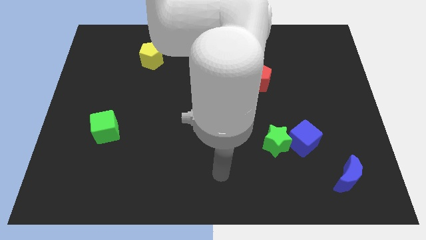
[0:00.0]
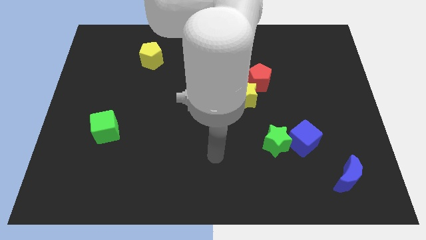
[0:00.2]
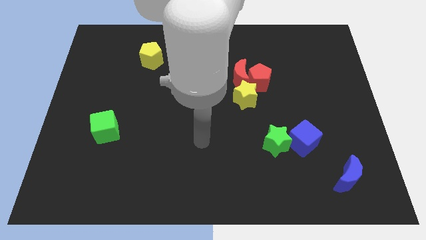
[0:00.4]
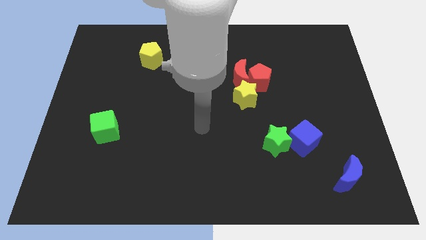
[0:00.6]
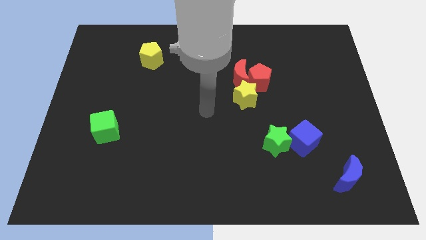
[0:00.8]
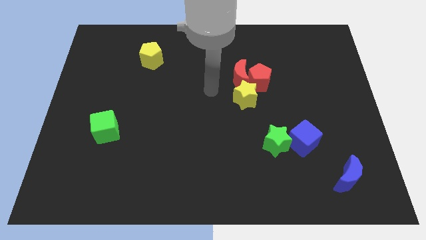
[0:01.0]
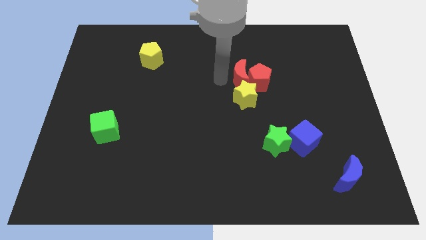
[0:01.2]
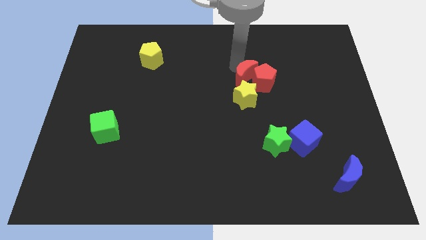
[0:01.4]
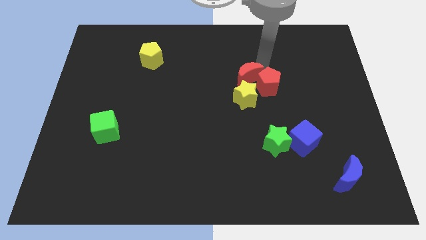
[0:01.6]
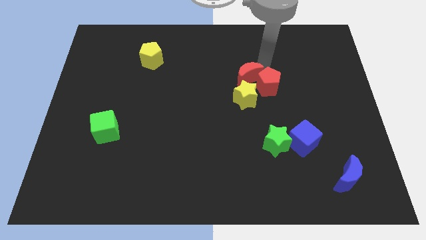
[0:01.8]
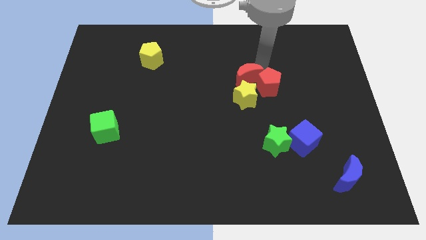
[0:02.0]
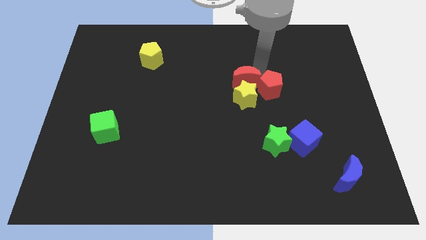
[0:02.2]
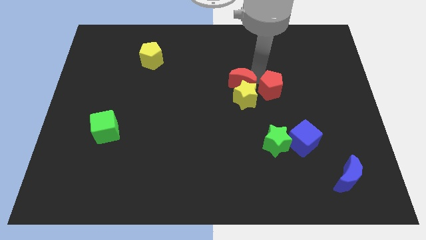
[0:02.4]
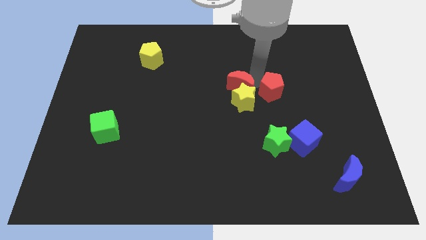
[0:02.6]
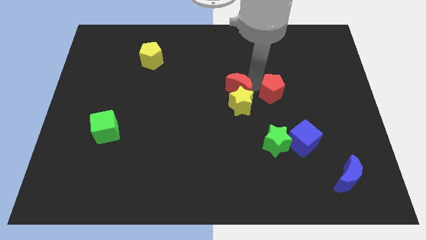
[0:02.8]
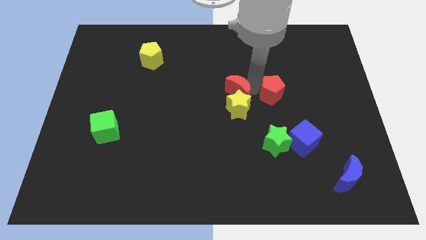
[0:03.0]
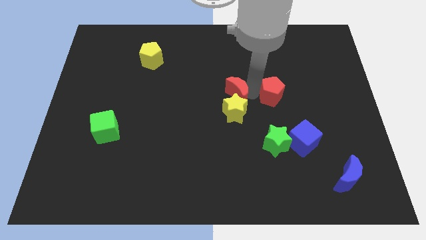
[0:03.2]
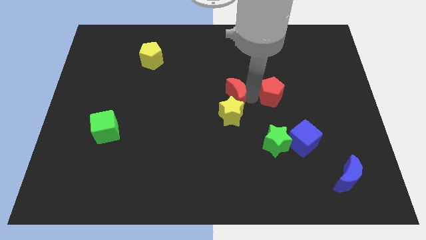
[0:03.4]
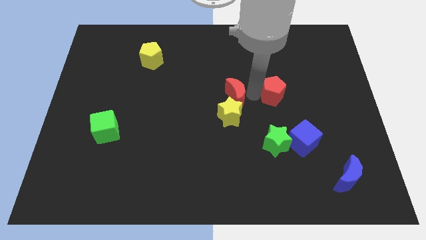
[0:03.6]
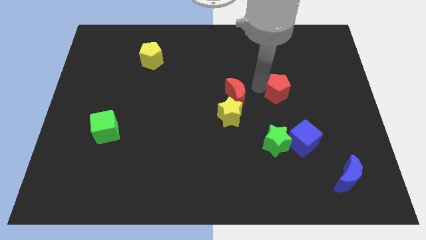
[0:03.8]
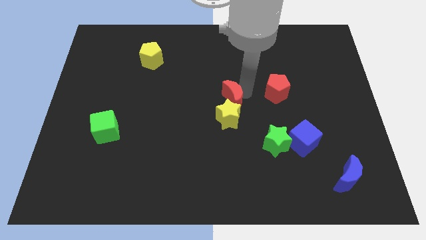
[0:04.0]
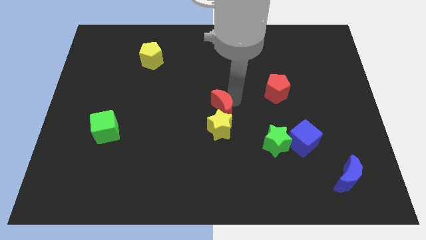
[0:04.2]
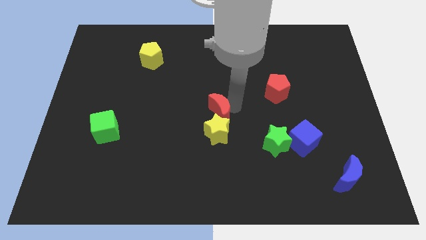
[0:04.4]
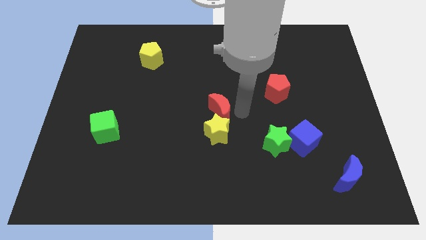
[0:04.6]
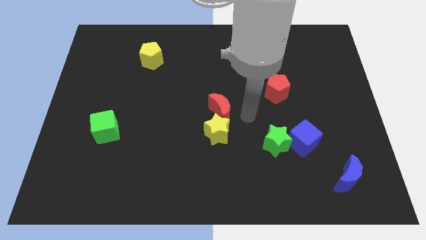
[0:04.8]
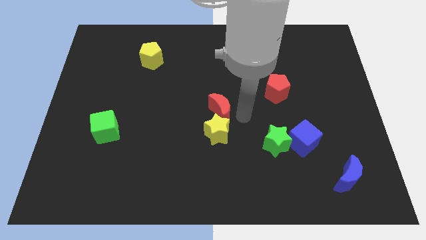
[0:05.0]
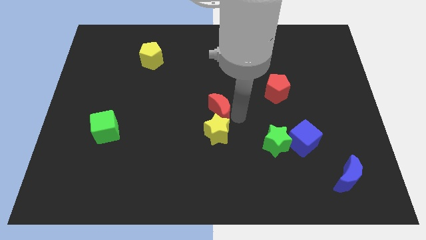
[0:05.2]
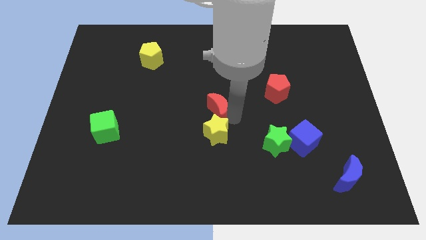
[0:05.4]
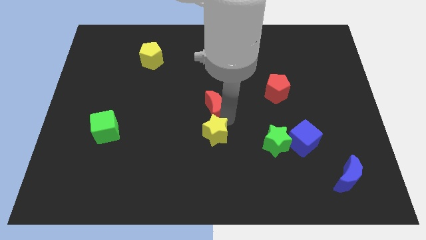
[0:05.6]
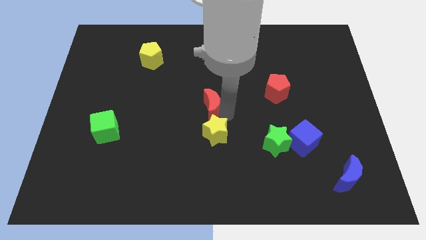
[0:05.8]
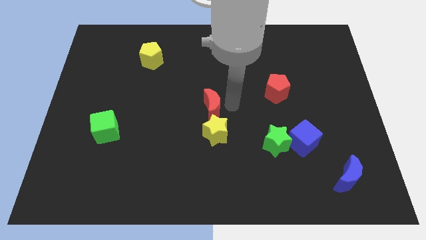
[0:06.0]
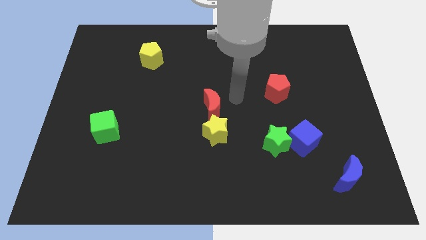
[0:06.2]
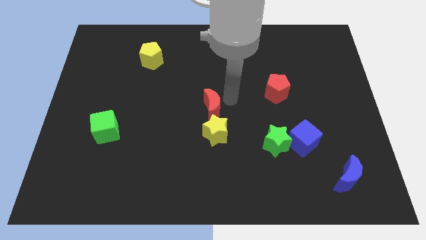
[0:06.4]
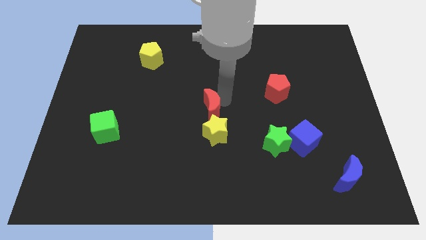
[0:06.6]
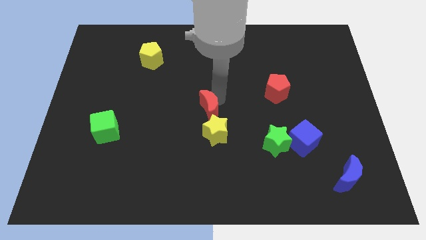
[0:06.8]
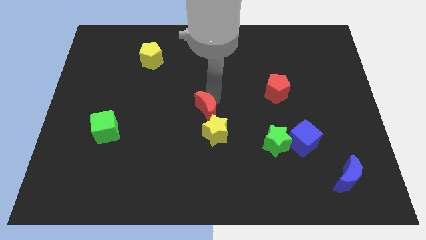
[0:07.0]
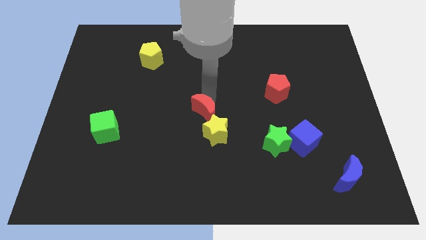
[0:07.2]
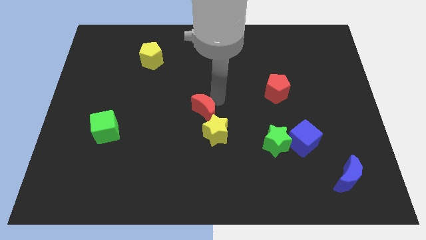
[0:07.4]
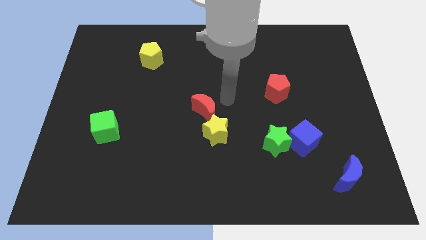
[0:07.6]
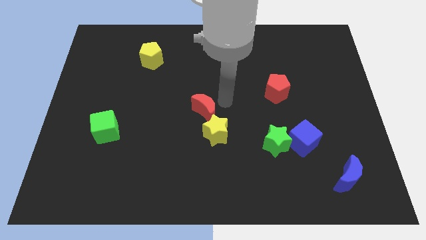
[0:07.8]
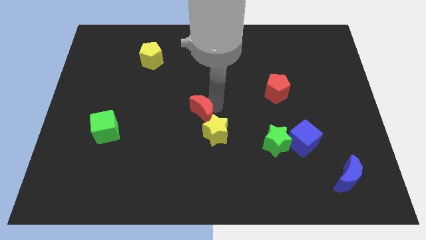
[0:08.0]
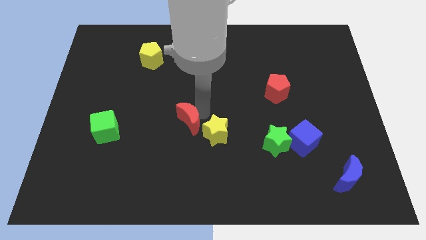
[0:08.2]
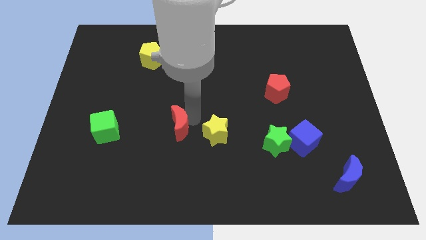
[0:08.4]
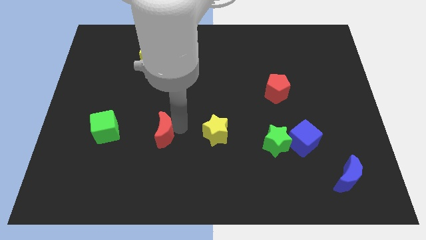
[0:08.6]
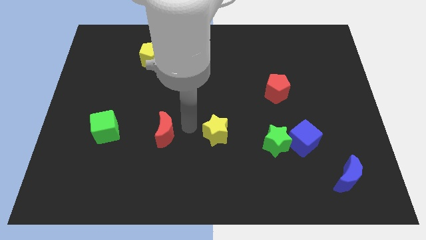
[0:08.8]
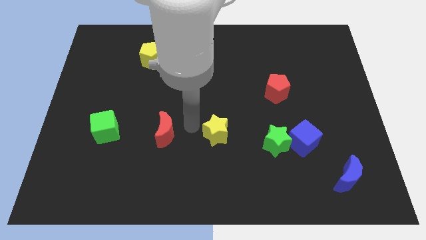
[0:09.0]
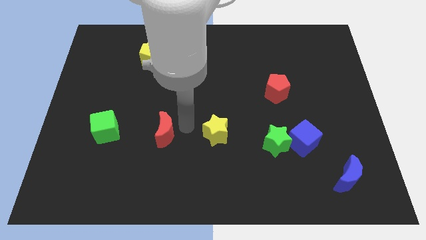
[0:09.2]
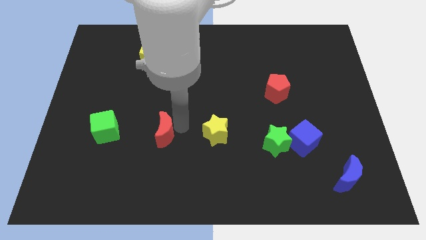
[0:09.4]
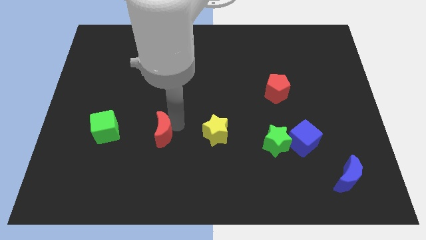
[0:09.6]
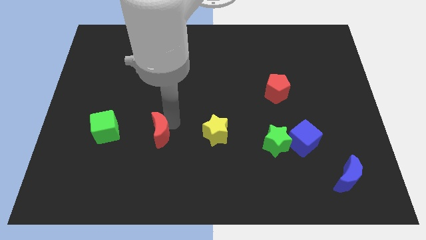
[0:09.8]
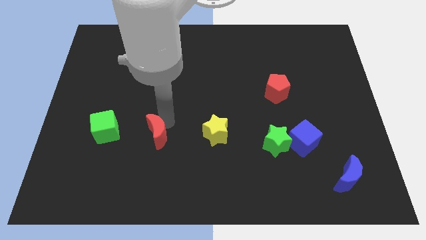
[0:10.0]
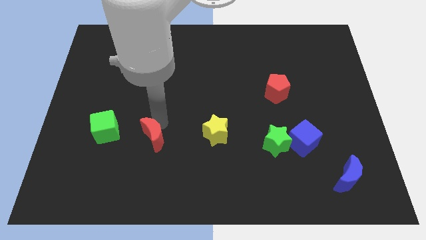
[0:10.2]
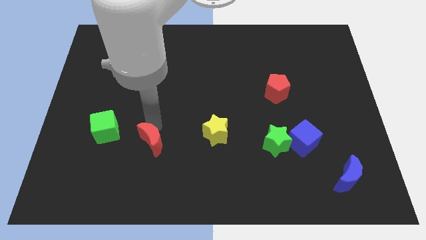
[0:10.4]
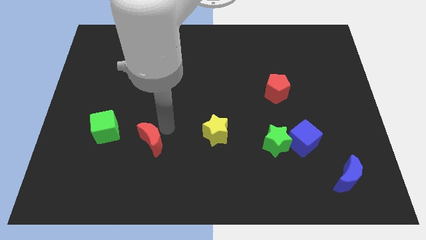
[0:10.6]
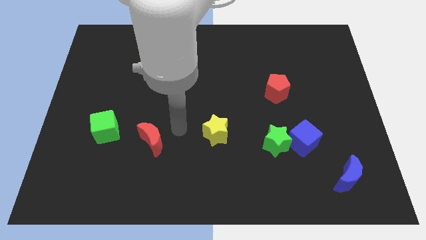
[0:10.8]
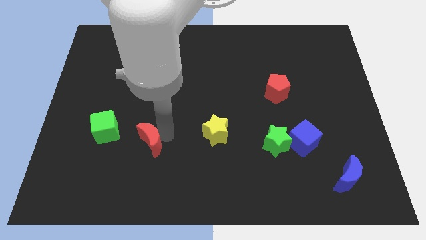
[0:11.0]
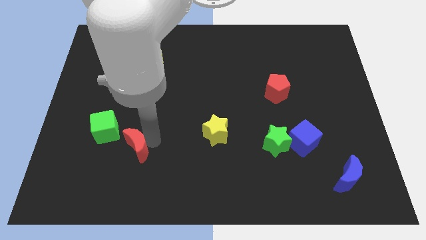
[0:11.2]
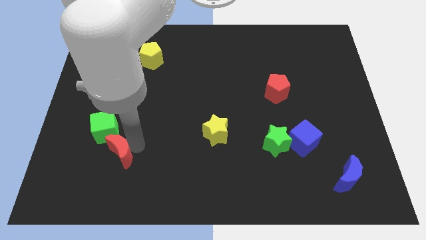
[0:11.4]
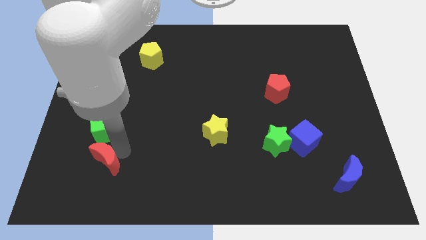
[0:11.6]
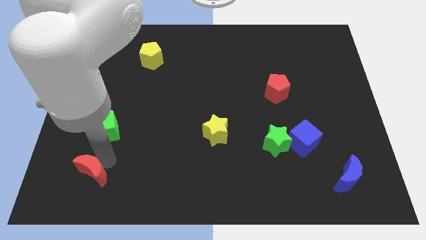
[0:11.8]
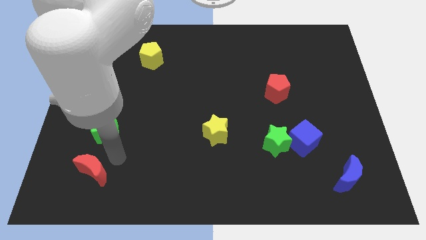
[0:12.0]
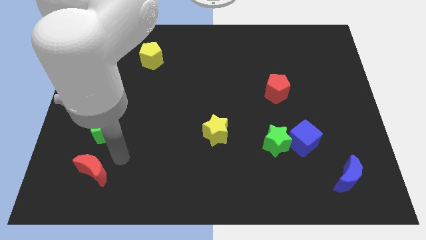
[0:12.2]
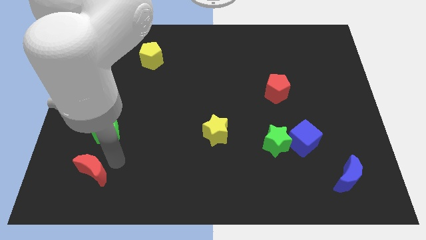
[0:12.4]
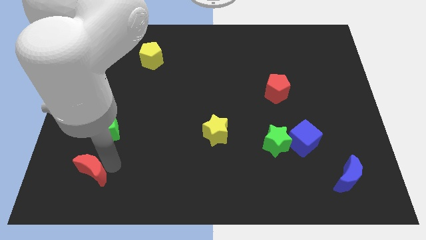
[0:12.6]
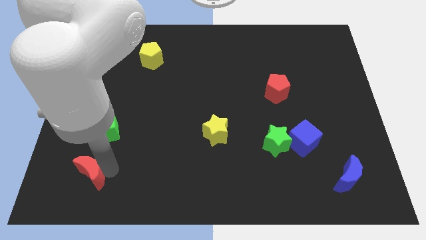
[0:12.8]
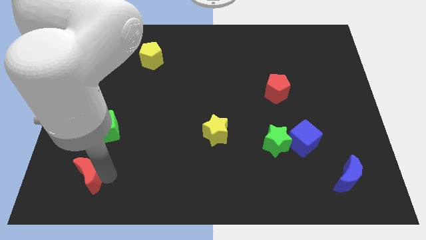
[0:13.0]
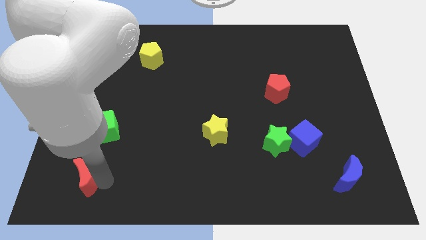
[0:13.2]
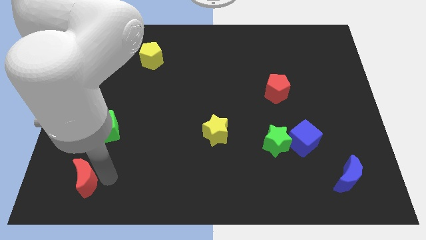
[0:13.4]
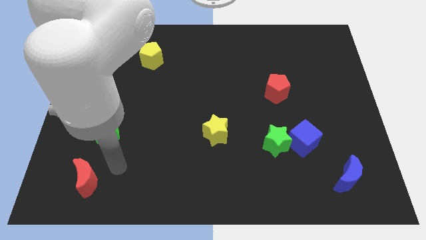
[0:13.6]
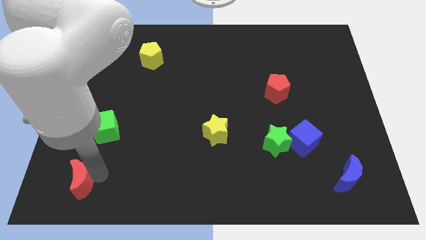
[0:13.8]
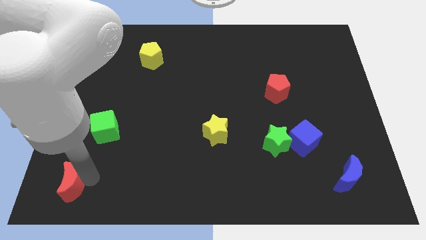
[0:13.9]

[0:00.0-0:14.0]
push the red moon to the bottom left

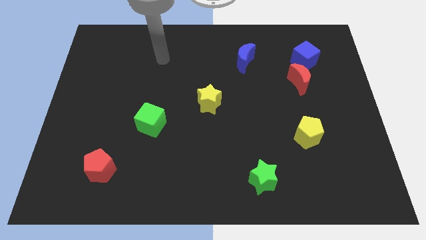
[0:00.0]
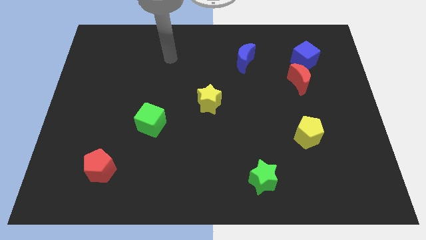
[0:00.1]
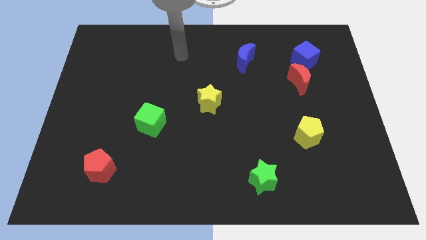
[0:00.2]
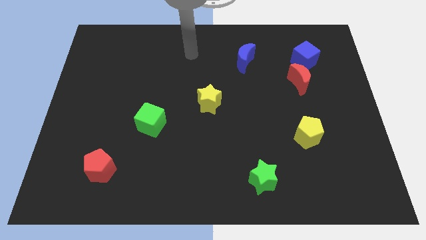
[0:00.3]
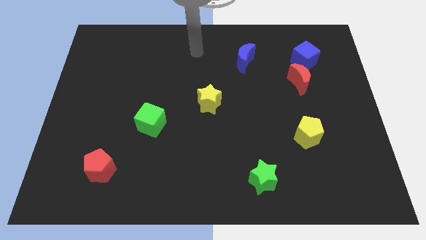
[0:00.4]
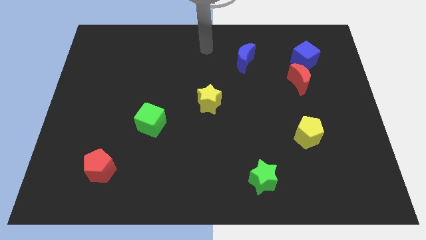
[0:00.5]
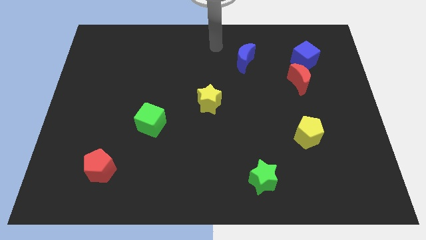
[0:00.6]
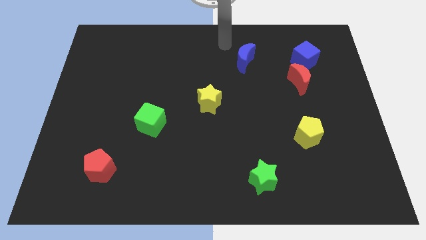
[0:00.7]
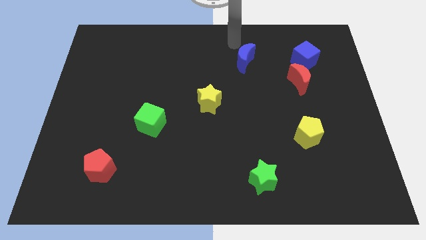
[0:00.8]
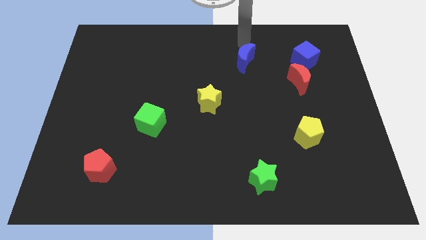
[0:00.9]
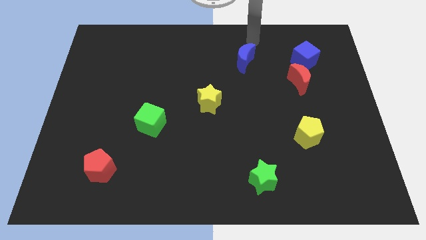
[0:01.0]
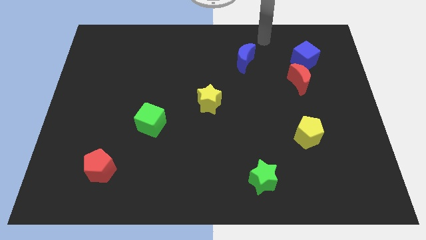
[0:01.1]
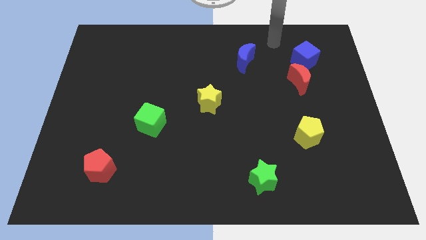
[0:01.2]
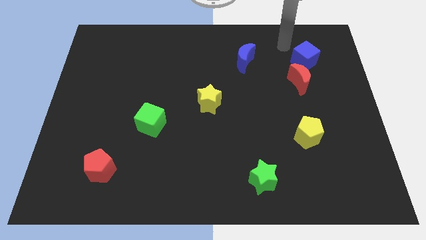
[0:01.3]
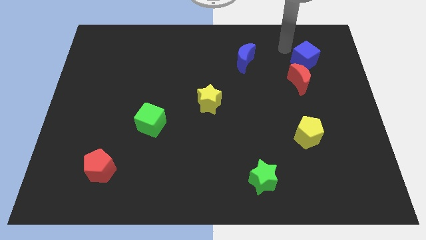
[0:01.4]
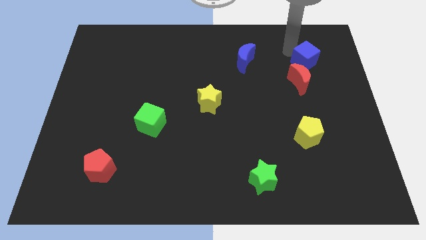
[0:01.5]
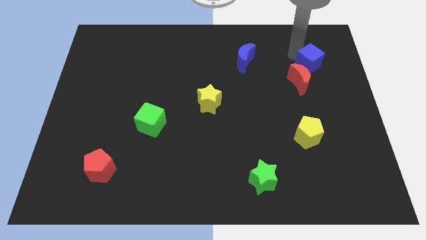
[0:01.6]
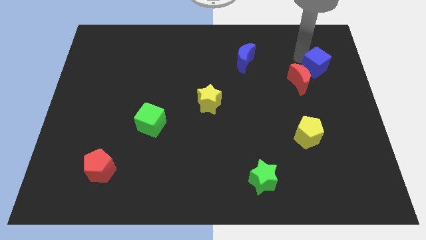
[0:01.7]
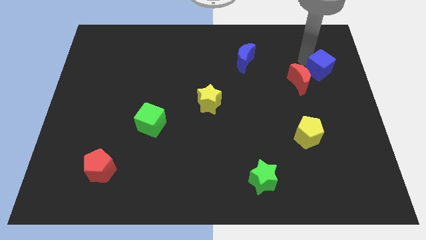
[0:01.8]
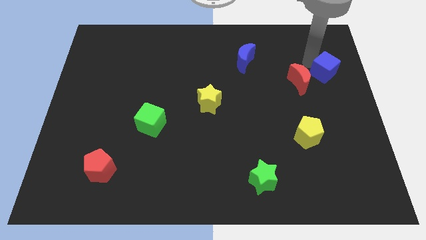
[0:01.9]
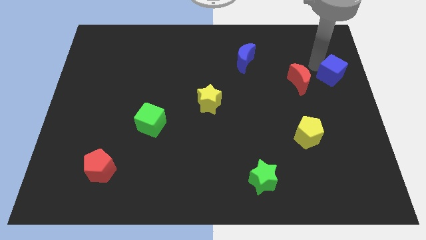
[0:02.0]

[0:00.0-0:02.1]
slide the blue cube to the center right
